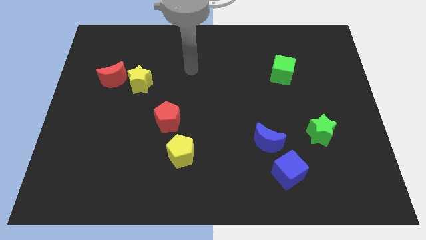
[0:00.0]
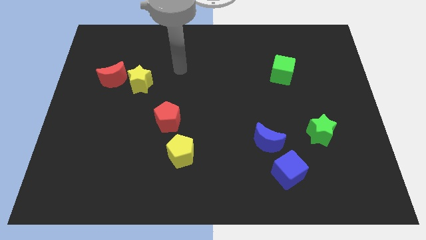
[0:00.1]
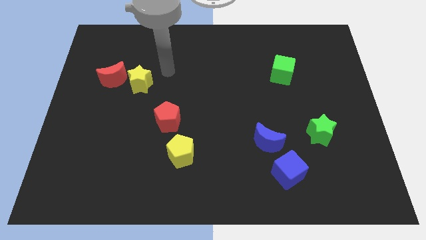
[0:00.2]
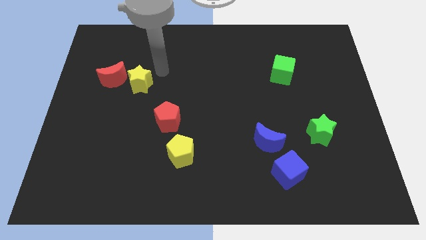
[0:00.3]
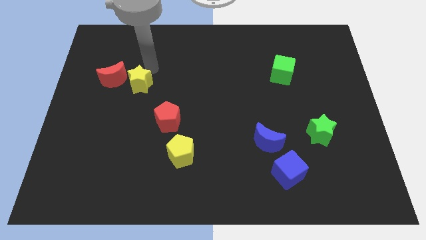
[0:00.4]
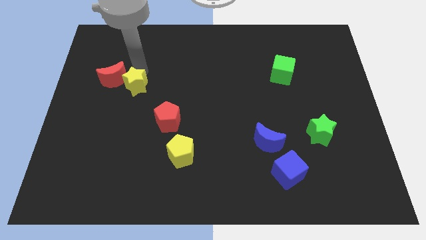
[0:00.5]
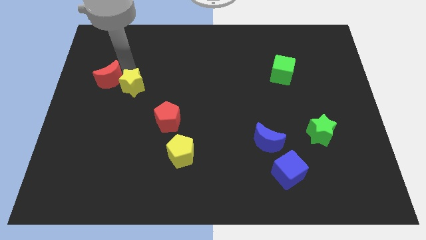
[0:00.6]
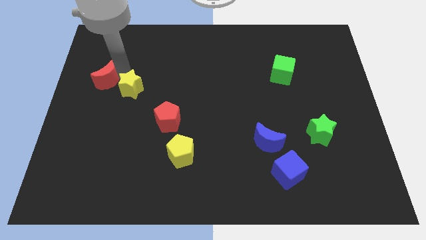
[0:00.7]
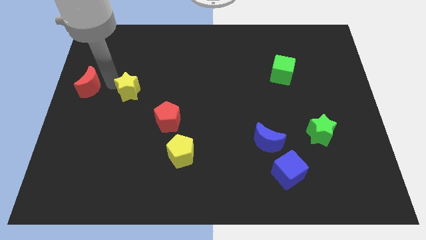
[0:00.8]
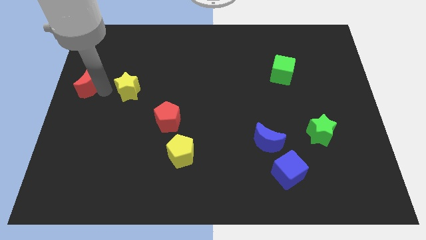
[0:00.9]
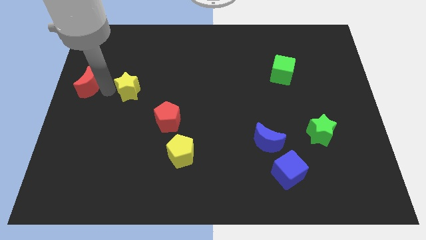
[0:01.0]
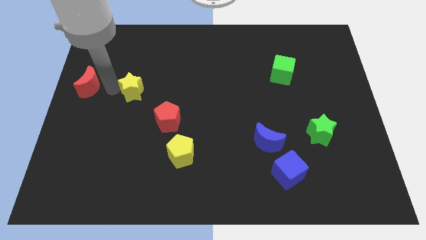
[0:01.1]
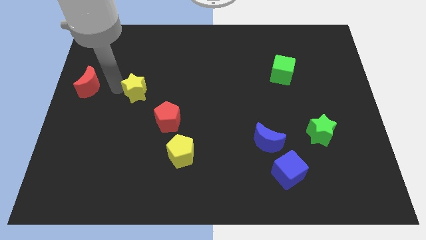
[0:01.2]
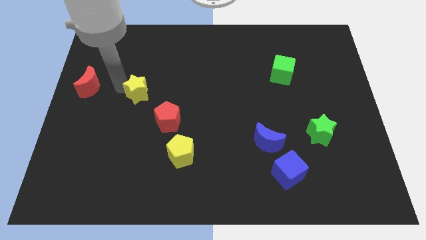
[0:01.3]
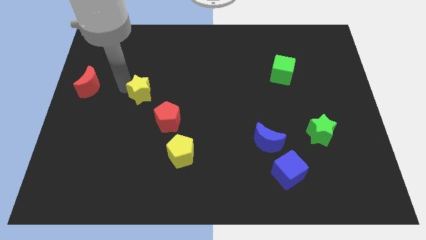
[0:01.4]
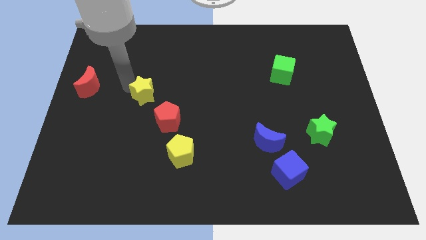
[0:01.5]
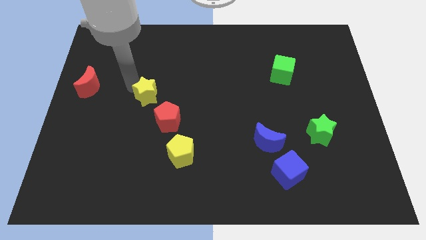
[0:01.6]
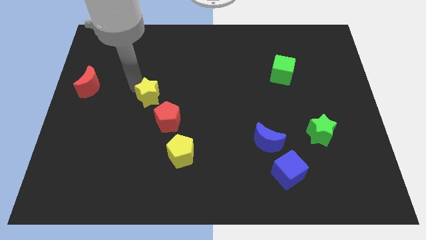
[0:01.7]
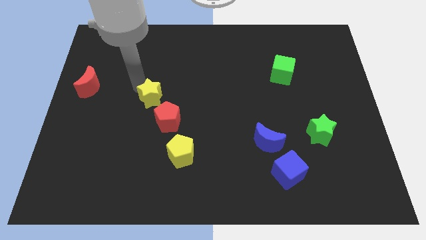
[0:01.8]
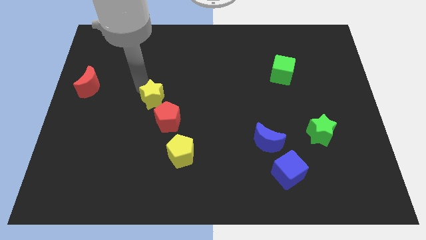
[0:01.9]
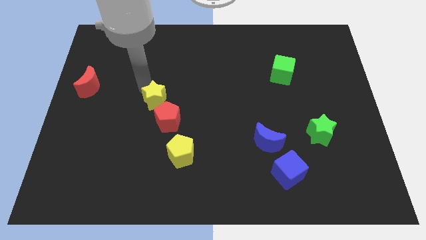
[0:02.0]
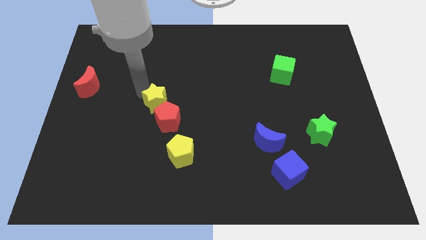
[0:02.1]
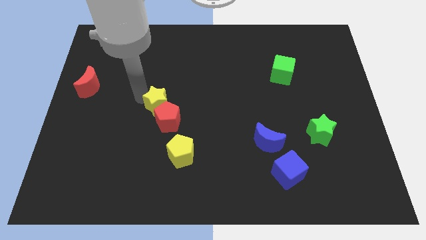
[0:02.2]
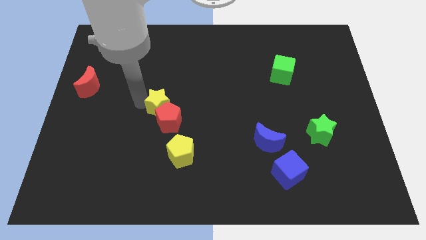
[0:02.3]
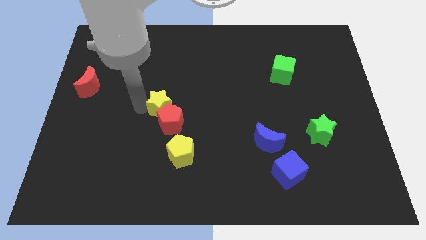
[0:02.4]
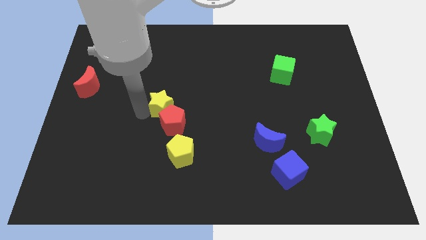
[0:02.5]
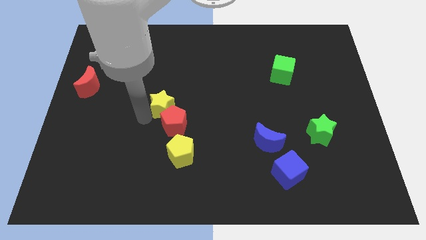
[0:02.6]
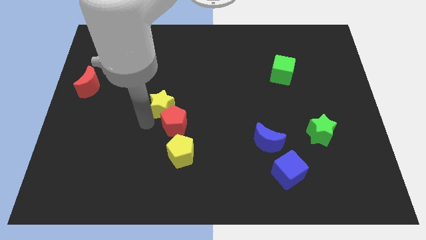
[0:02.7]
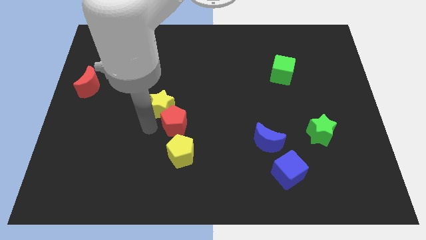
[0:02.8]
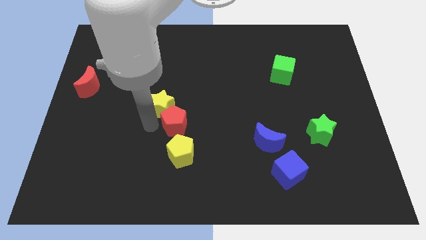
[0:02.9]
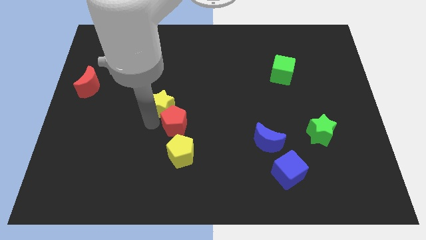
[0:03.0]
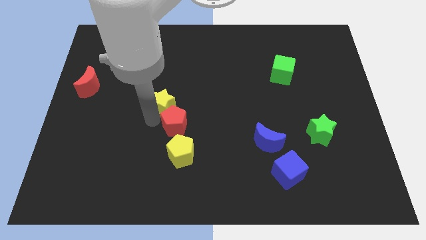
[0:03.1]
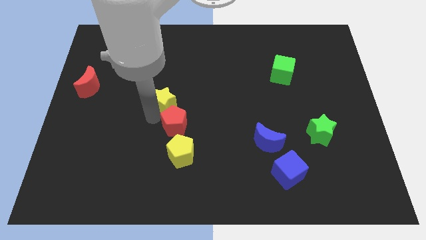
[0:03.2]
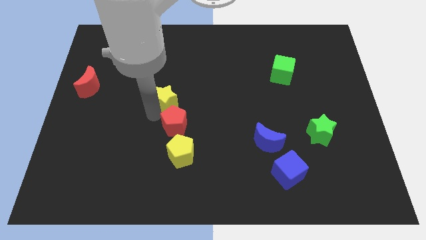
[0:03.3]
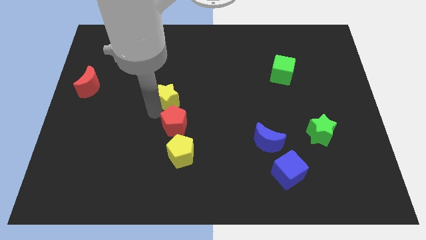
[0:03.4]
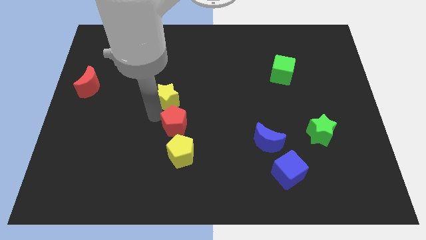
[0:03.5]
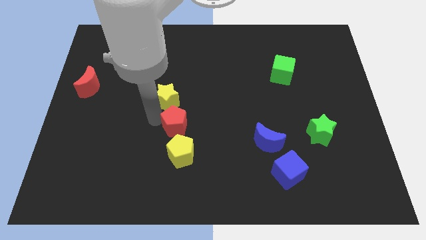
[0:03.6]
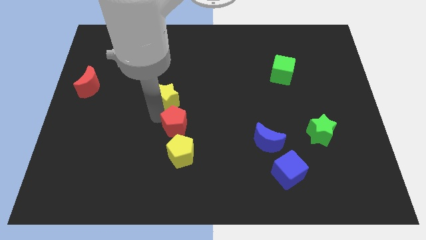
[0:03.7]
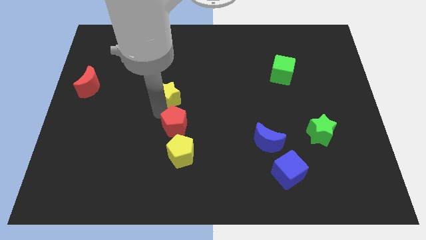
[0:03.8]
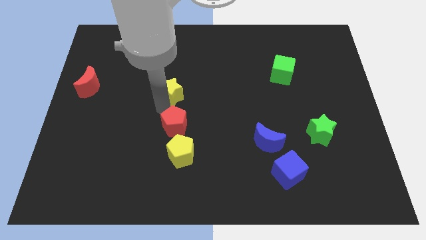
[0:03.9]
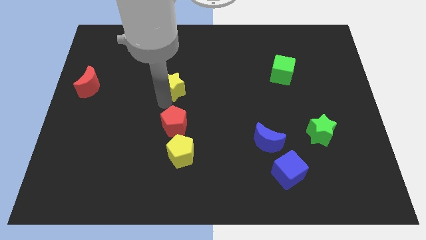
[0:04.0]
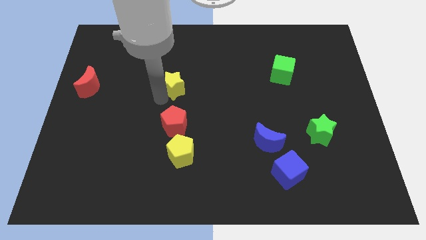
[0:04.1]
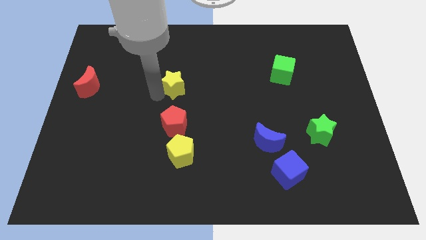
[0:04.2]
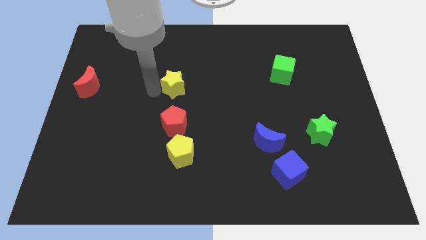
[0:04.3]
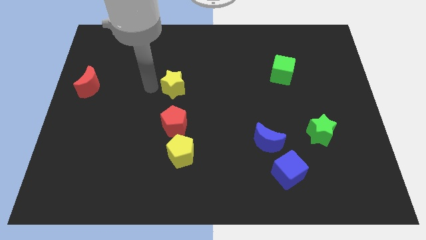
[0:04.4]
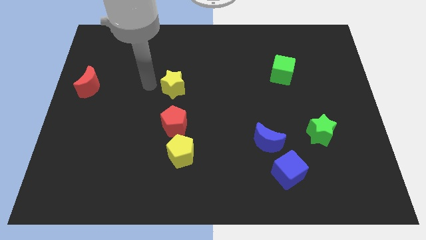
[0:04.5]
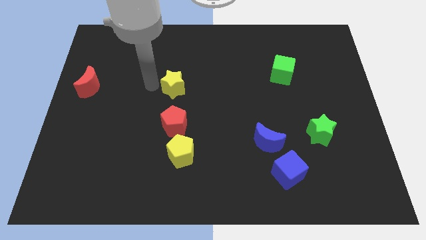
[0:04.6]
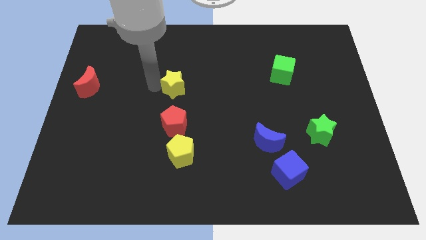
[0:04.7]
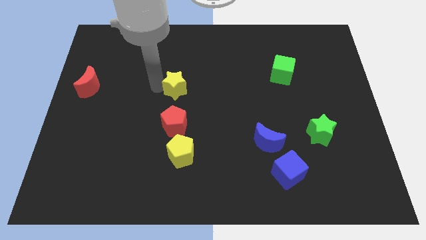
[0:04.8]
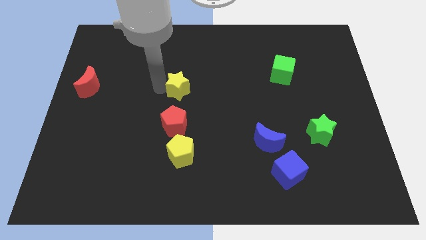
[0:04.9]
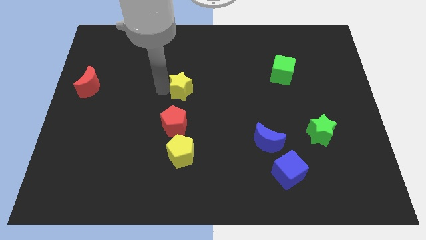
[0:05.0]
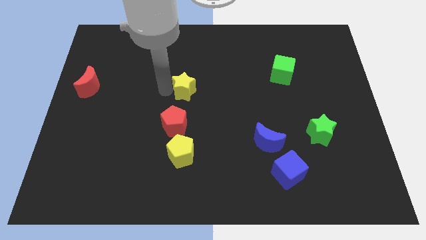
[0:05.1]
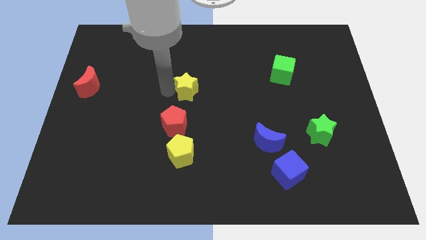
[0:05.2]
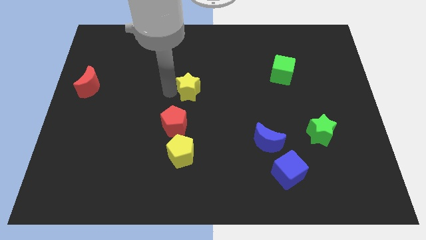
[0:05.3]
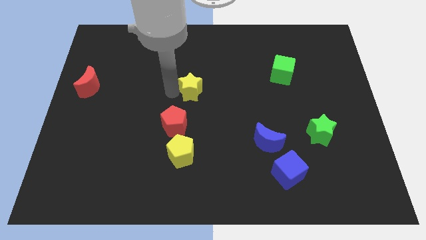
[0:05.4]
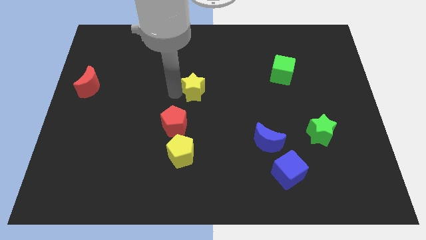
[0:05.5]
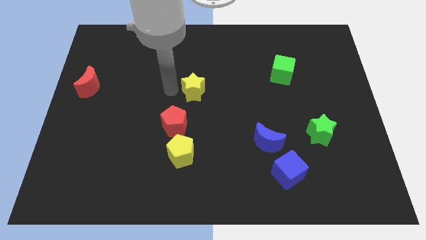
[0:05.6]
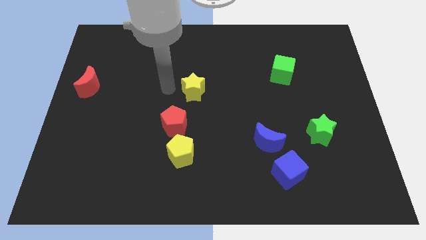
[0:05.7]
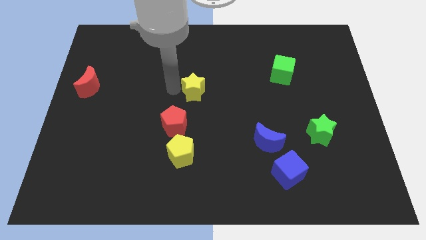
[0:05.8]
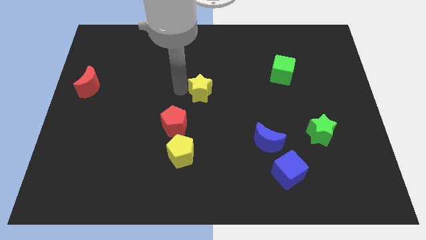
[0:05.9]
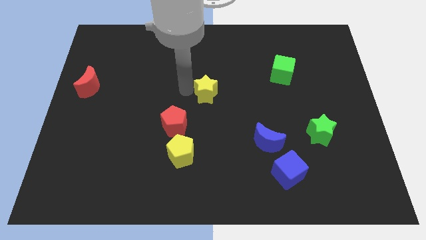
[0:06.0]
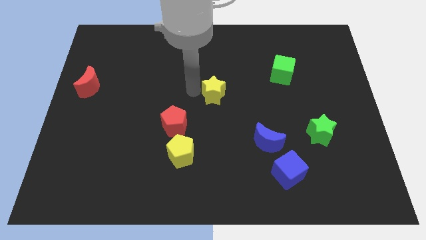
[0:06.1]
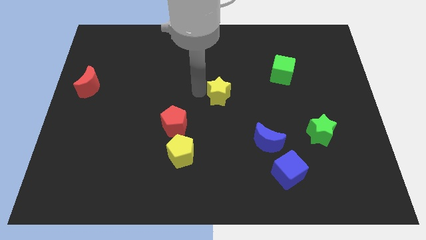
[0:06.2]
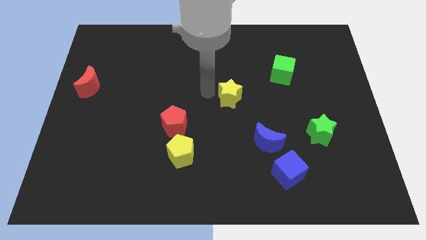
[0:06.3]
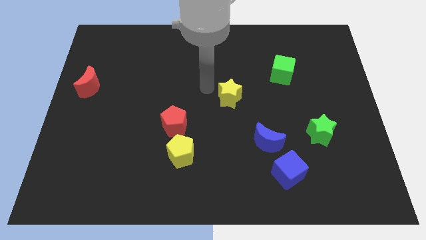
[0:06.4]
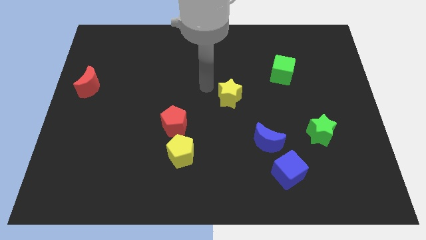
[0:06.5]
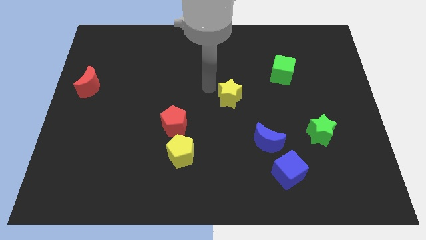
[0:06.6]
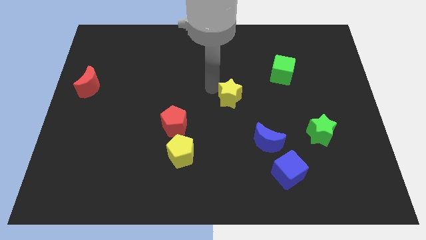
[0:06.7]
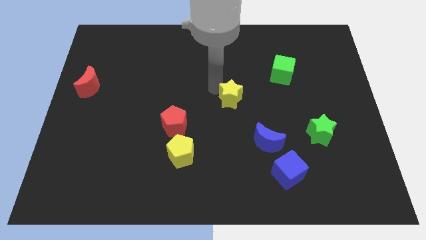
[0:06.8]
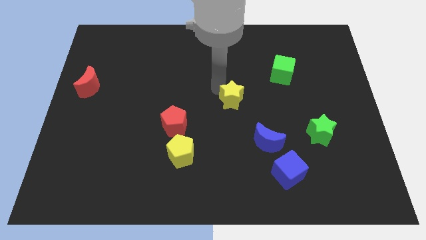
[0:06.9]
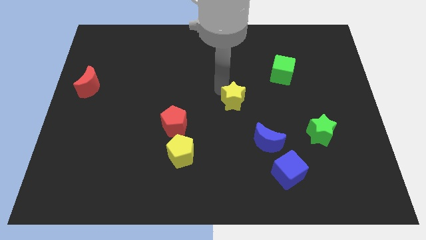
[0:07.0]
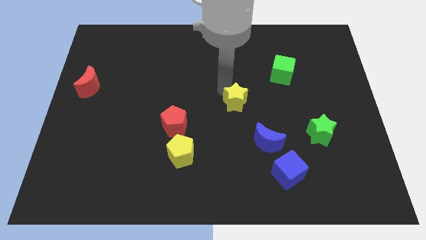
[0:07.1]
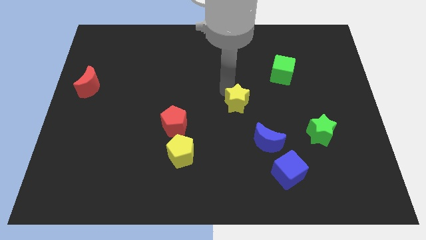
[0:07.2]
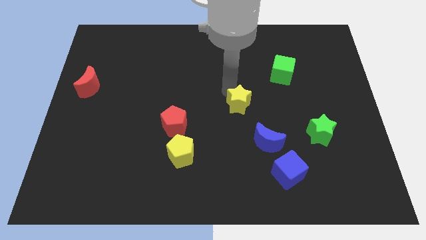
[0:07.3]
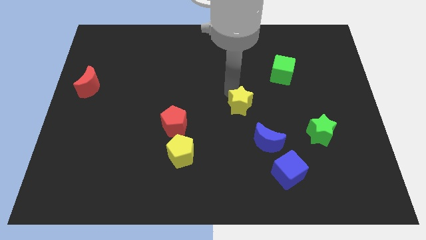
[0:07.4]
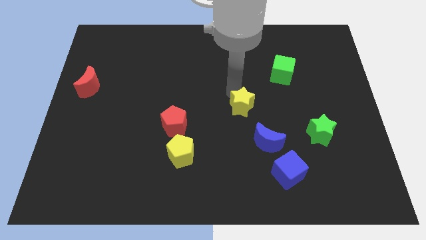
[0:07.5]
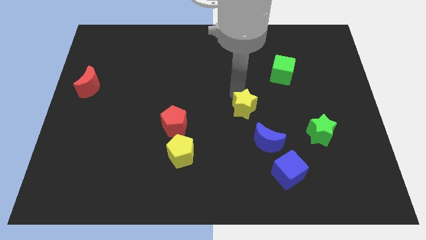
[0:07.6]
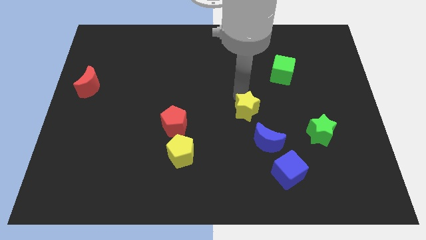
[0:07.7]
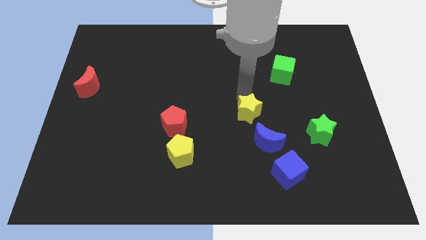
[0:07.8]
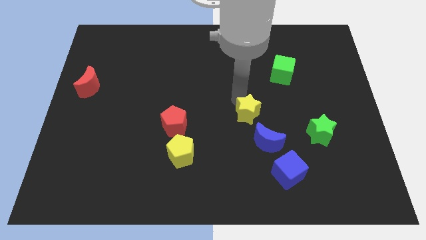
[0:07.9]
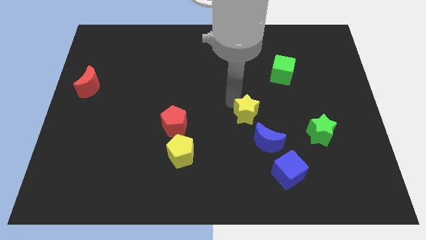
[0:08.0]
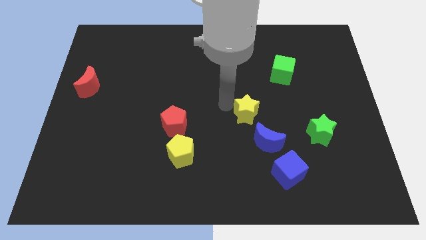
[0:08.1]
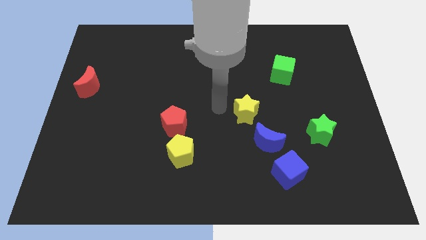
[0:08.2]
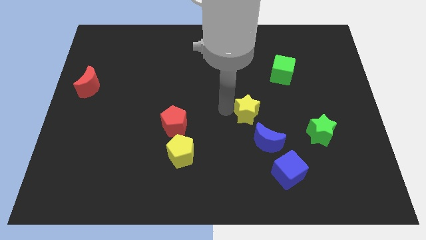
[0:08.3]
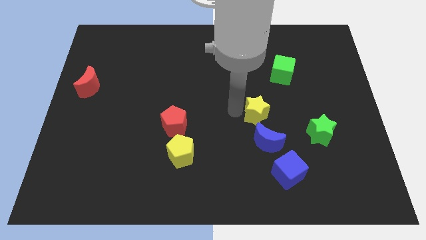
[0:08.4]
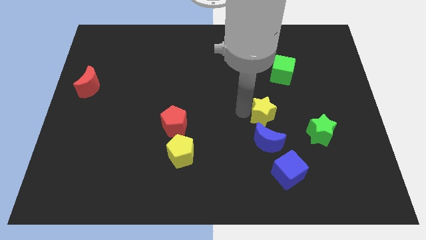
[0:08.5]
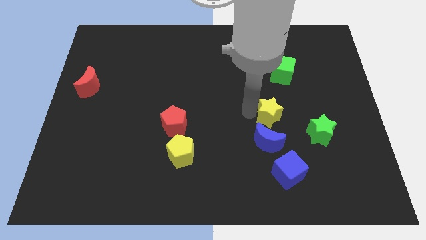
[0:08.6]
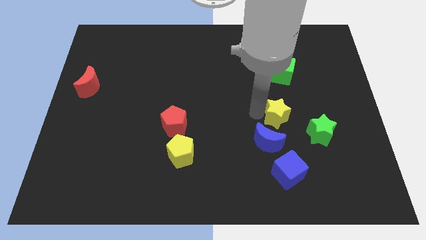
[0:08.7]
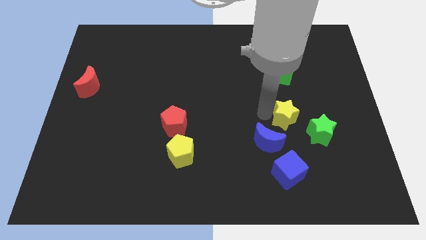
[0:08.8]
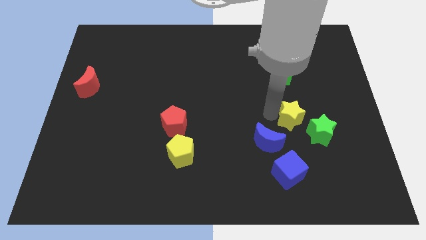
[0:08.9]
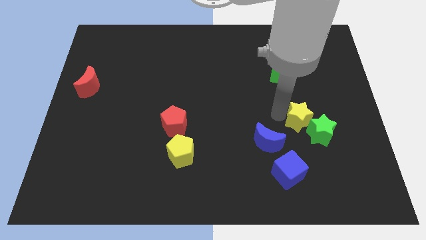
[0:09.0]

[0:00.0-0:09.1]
slide the yellow star towards the green star
